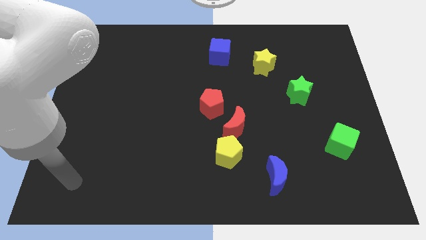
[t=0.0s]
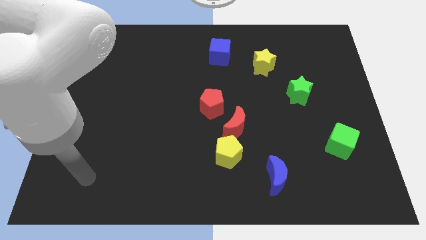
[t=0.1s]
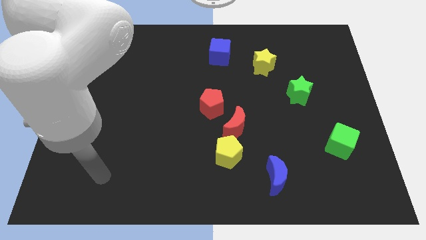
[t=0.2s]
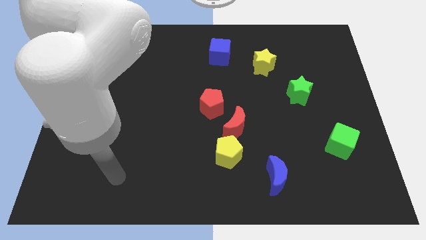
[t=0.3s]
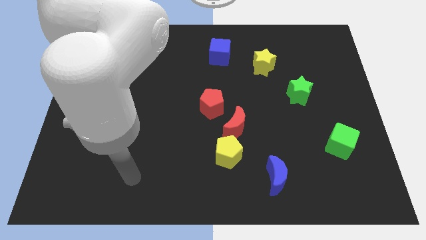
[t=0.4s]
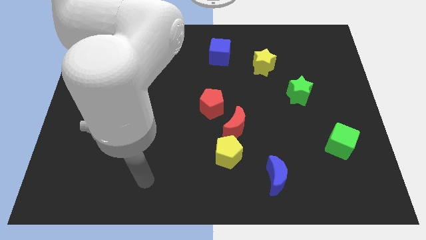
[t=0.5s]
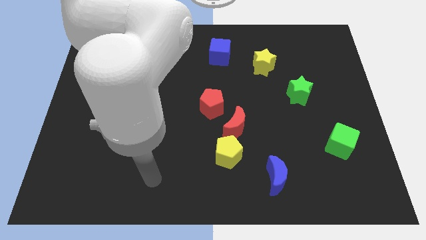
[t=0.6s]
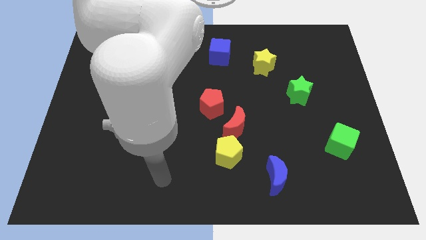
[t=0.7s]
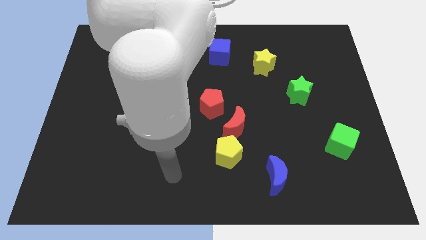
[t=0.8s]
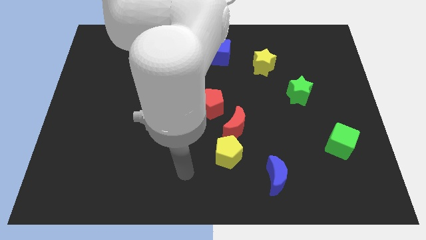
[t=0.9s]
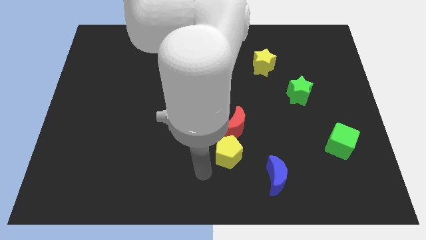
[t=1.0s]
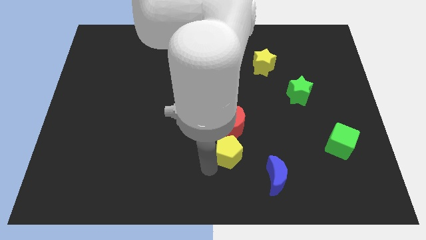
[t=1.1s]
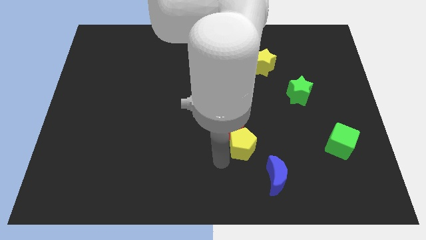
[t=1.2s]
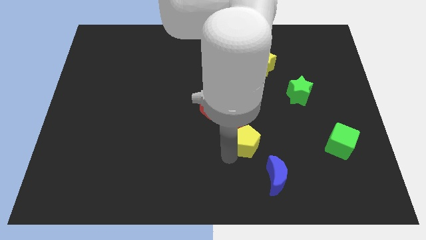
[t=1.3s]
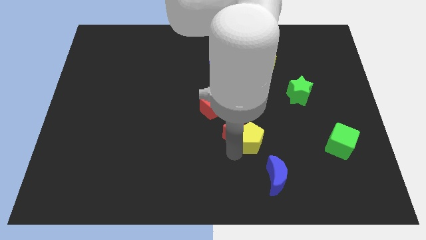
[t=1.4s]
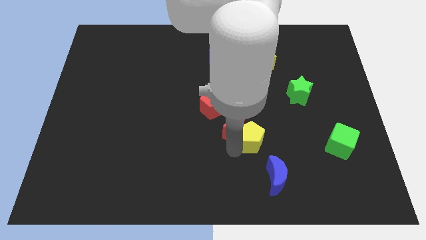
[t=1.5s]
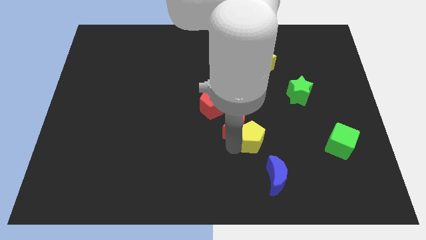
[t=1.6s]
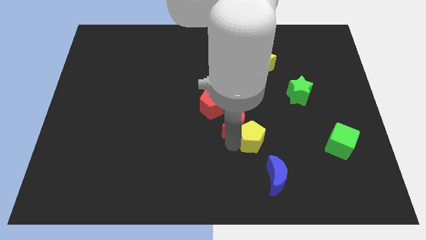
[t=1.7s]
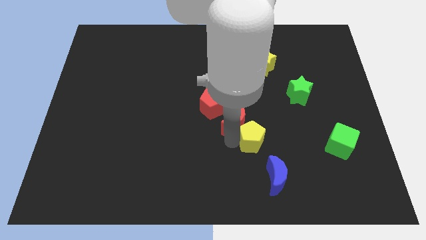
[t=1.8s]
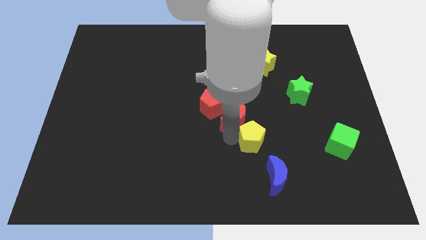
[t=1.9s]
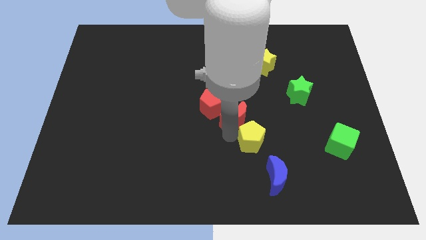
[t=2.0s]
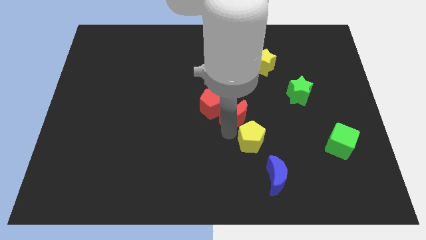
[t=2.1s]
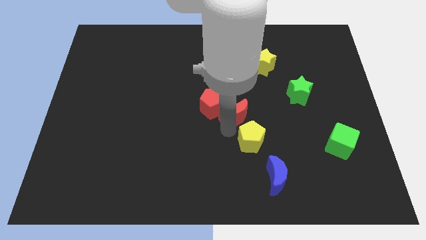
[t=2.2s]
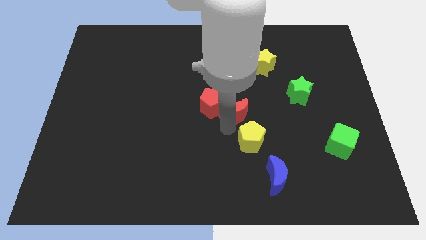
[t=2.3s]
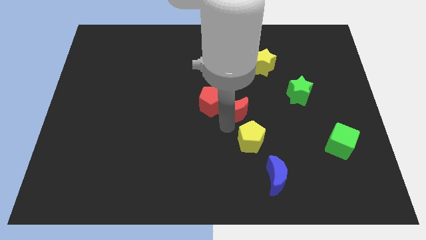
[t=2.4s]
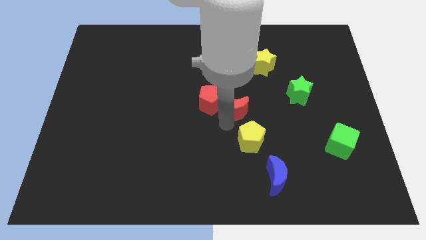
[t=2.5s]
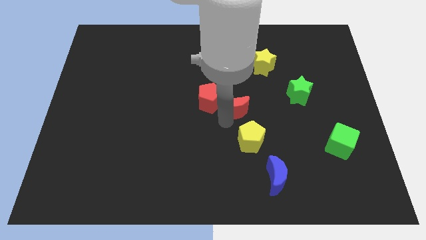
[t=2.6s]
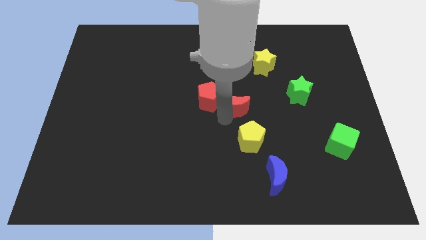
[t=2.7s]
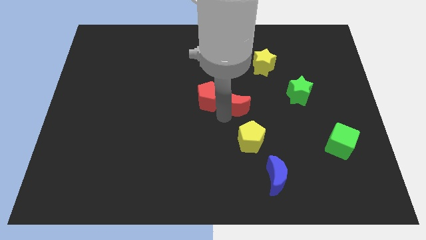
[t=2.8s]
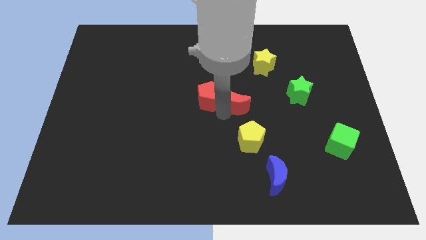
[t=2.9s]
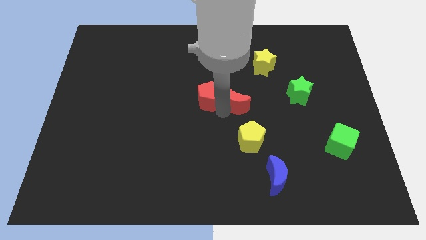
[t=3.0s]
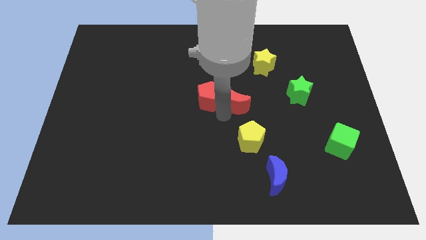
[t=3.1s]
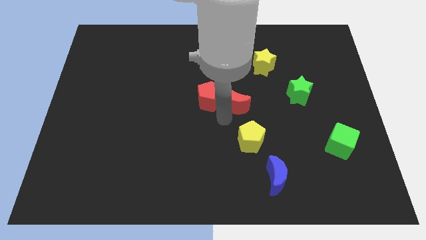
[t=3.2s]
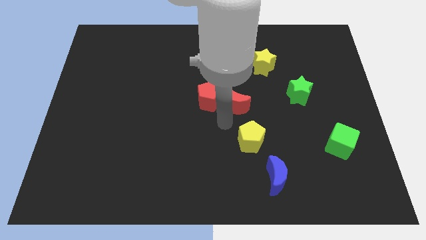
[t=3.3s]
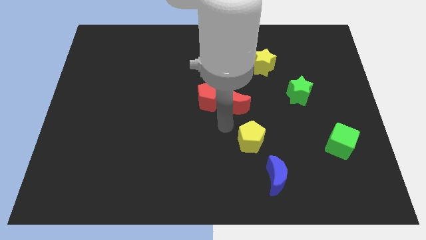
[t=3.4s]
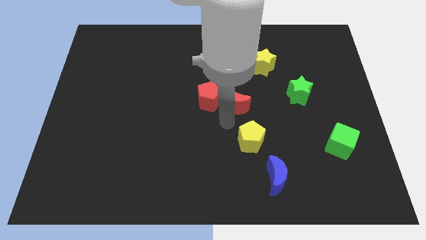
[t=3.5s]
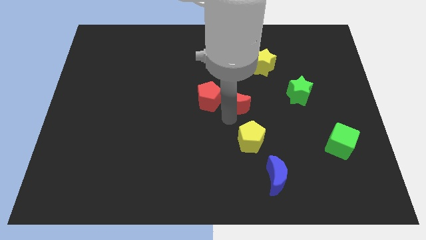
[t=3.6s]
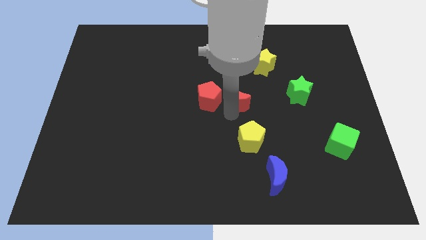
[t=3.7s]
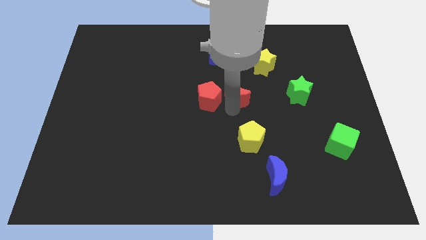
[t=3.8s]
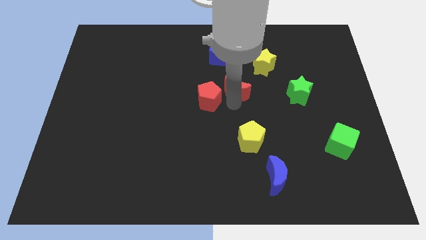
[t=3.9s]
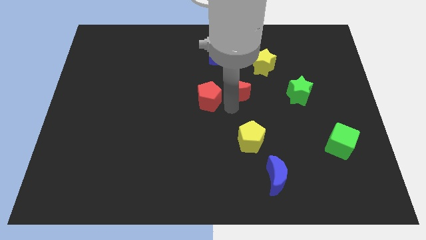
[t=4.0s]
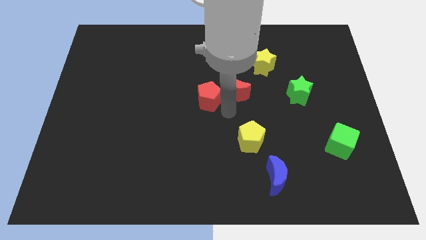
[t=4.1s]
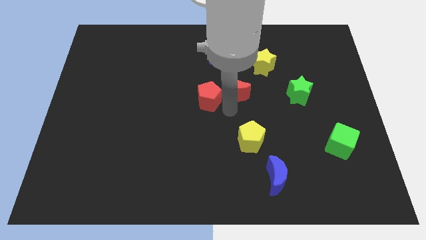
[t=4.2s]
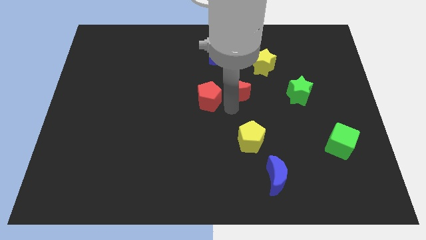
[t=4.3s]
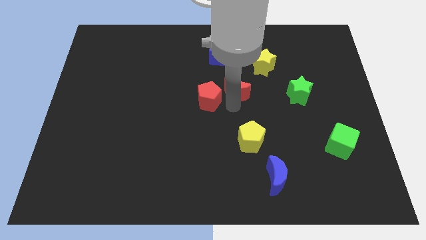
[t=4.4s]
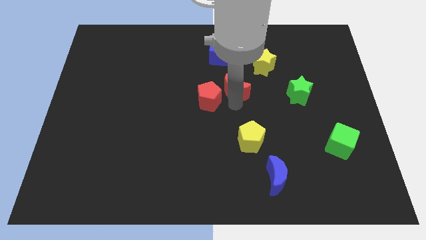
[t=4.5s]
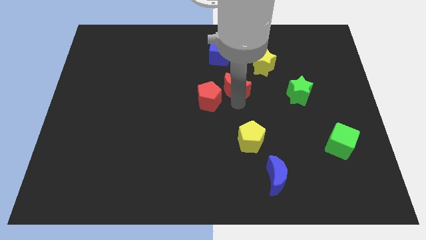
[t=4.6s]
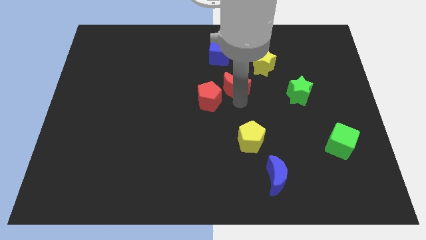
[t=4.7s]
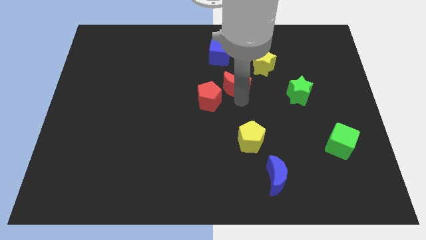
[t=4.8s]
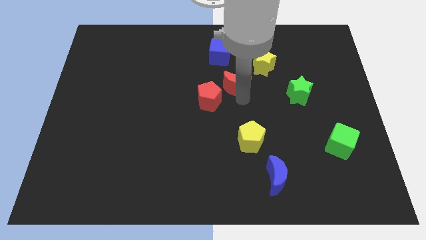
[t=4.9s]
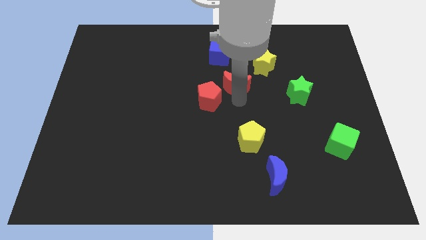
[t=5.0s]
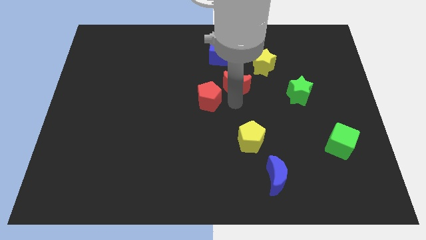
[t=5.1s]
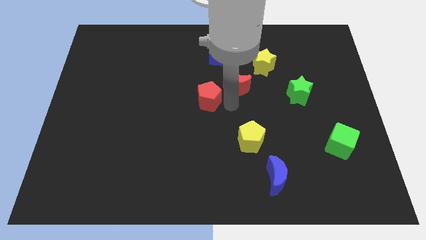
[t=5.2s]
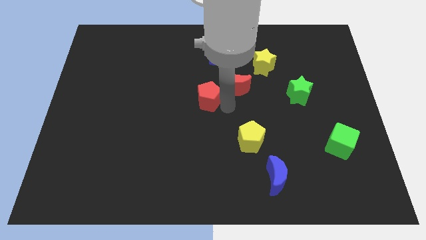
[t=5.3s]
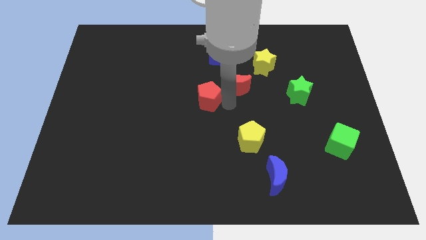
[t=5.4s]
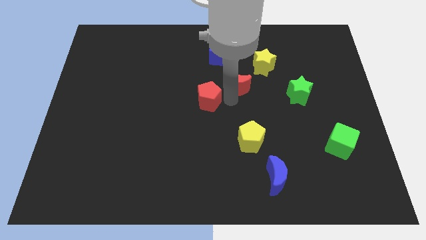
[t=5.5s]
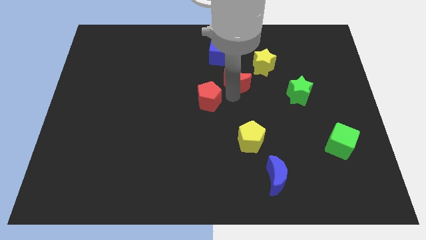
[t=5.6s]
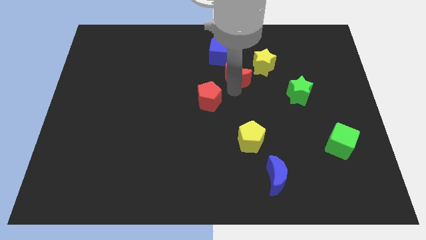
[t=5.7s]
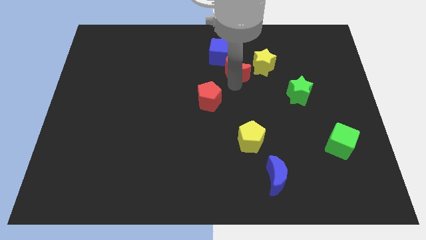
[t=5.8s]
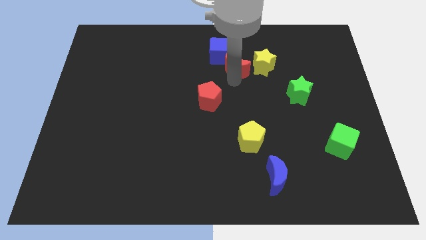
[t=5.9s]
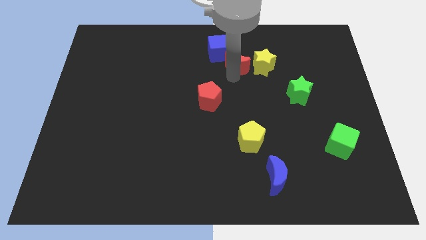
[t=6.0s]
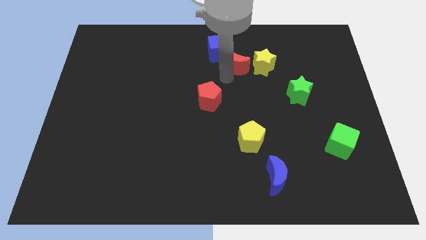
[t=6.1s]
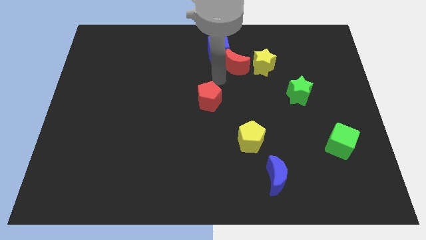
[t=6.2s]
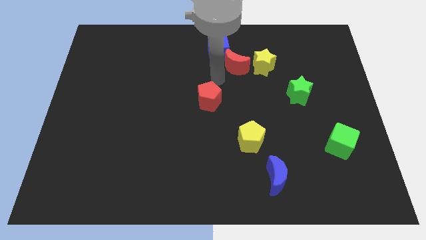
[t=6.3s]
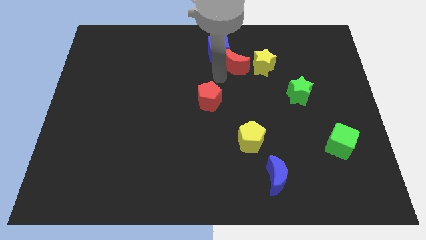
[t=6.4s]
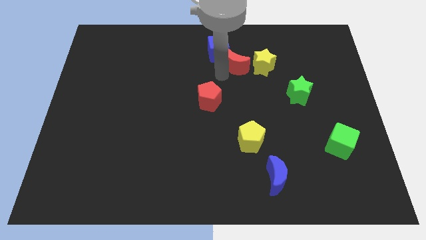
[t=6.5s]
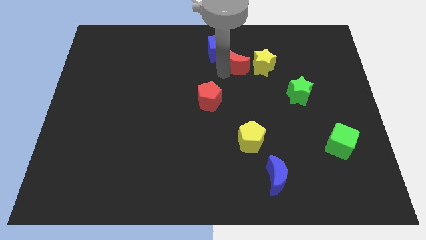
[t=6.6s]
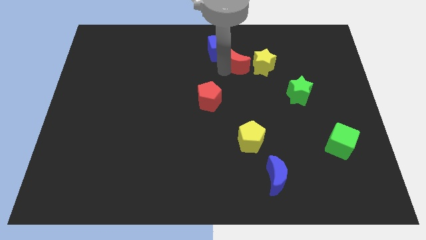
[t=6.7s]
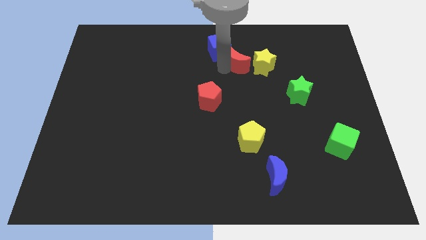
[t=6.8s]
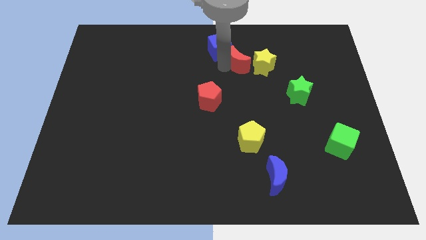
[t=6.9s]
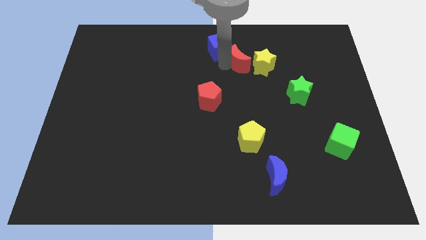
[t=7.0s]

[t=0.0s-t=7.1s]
move the red moon right of the blue cube
